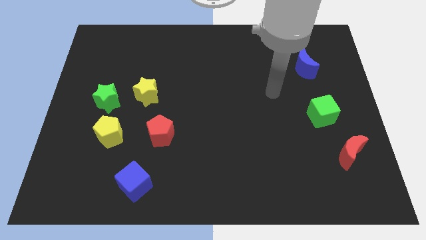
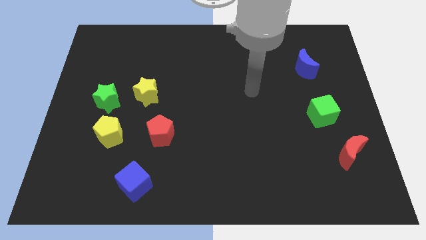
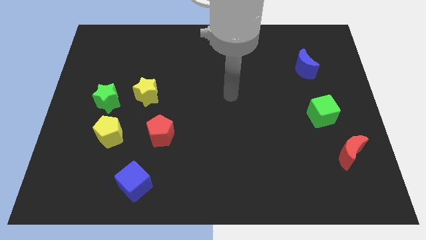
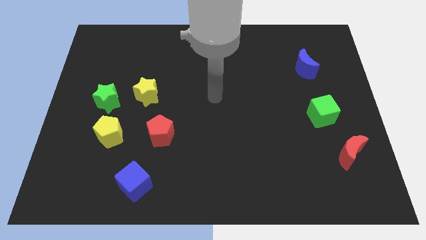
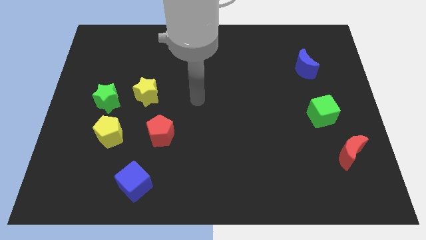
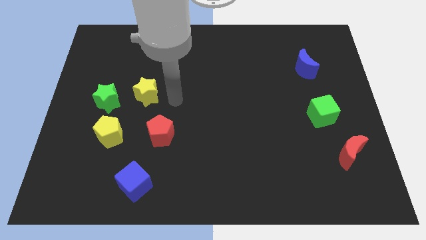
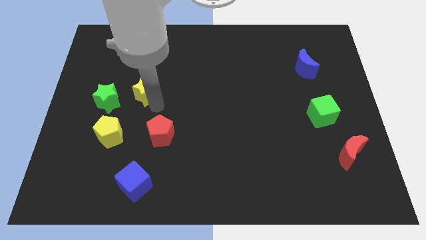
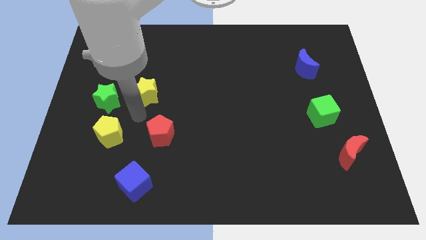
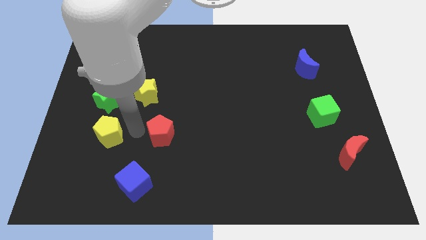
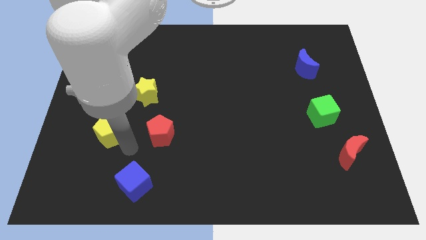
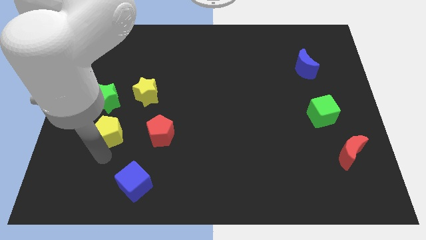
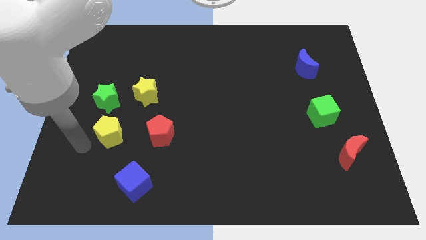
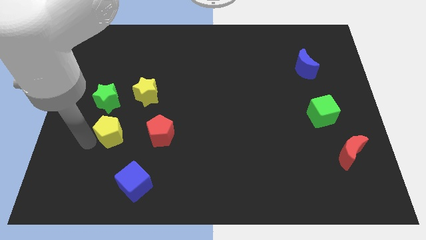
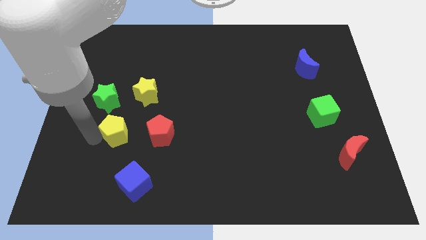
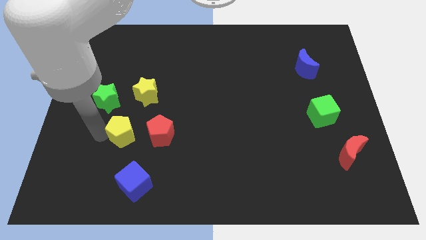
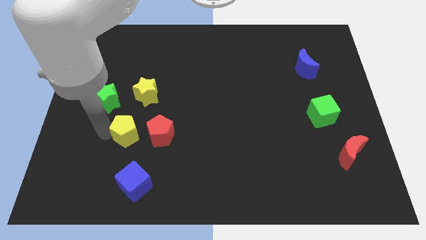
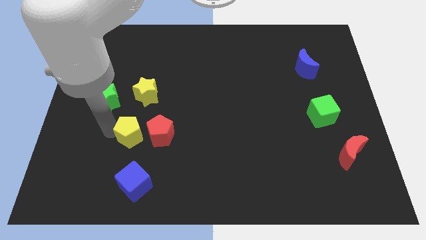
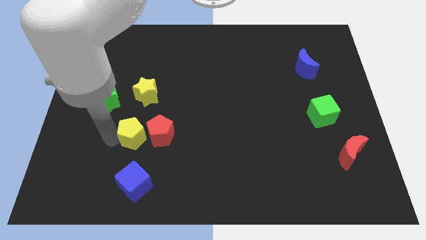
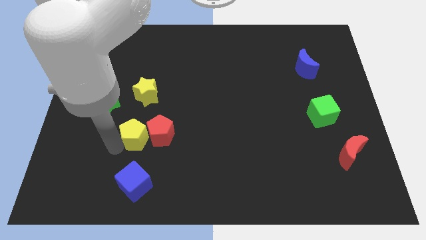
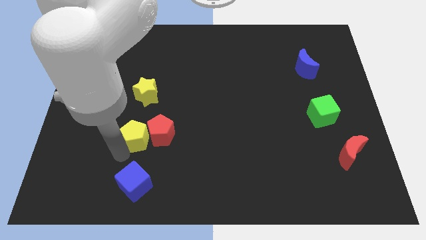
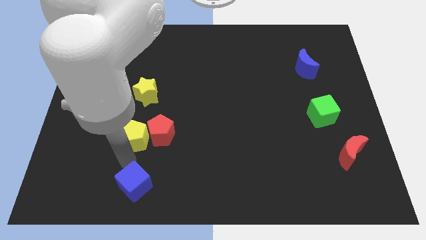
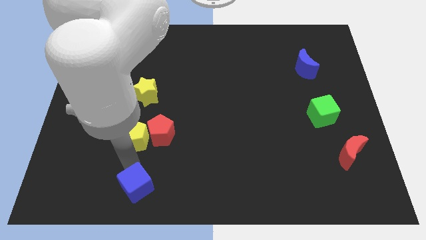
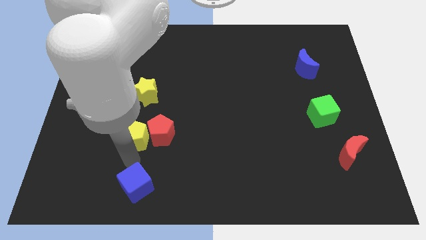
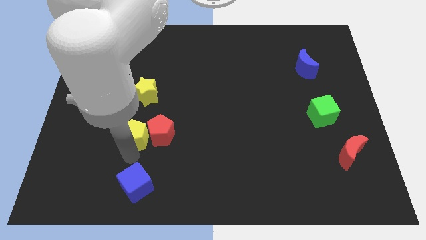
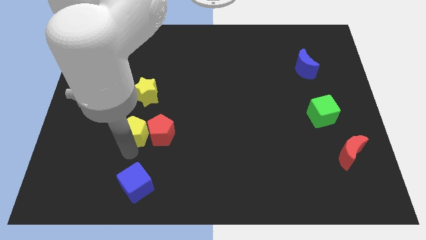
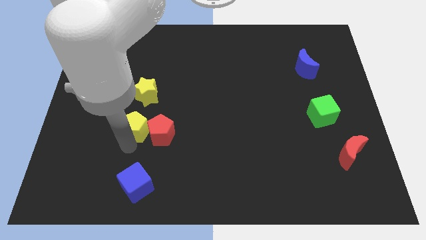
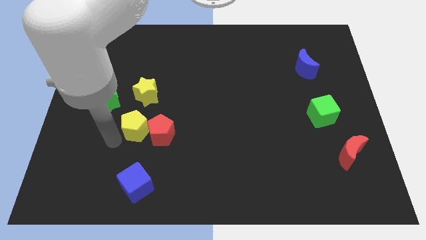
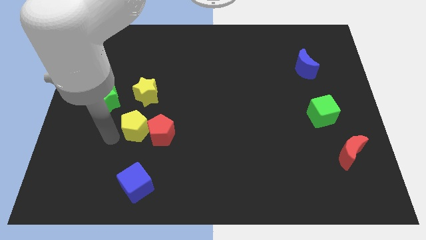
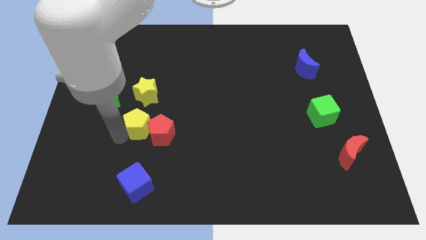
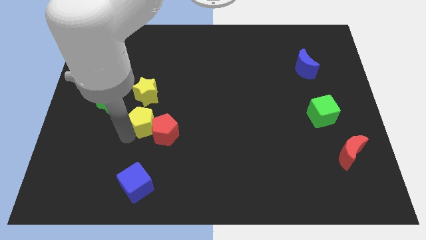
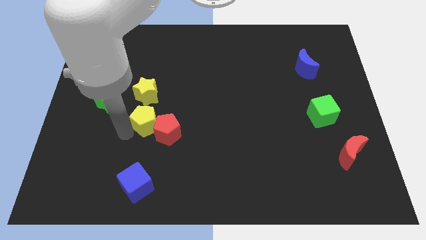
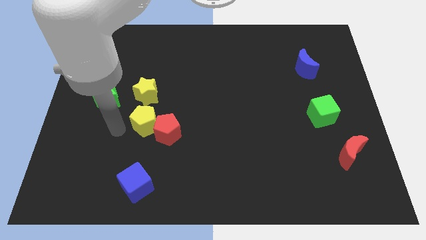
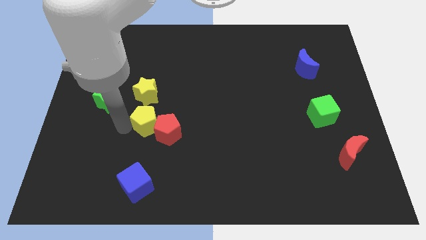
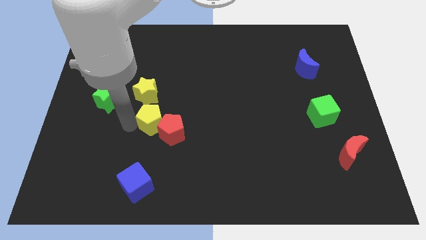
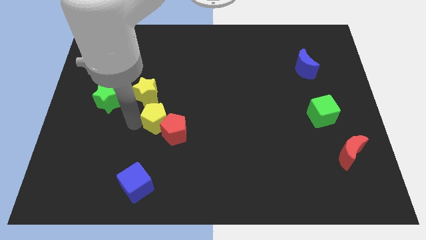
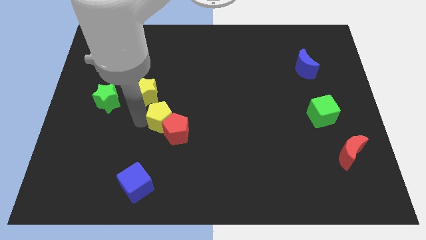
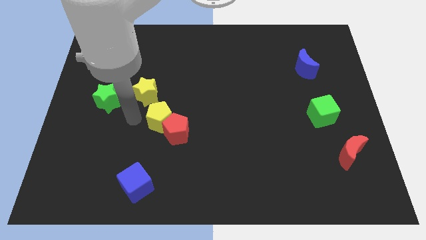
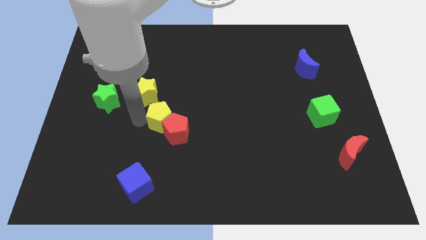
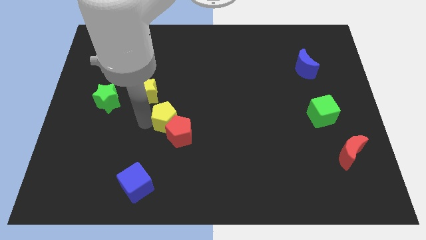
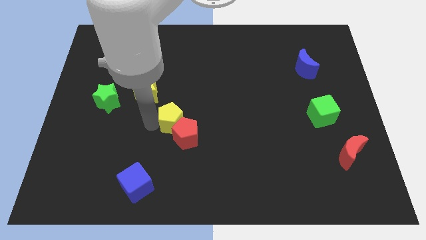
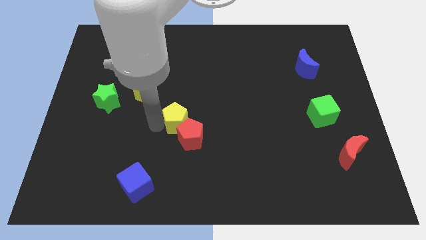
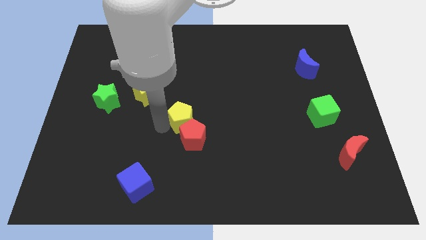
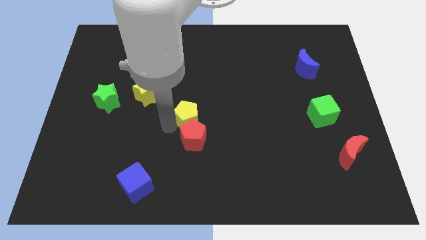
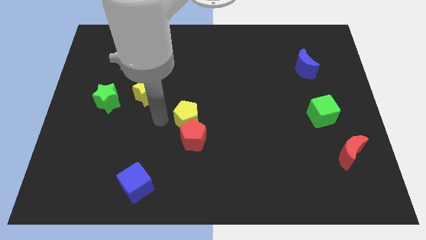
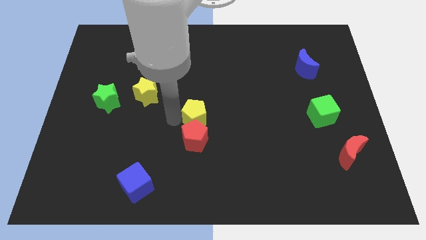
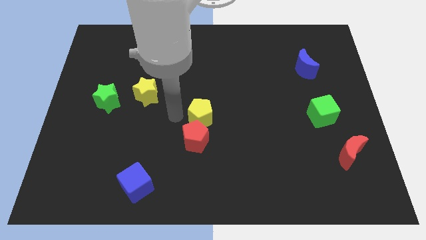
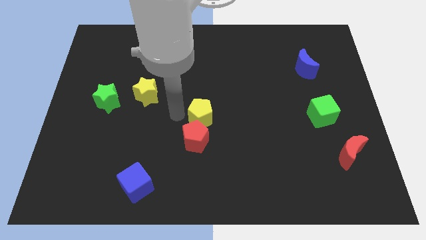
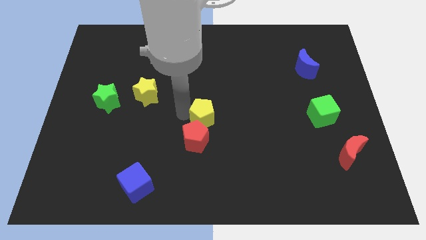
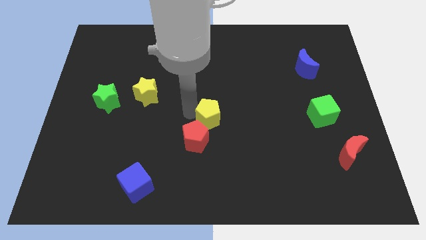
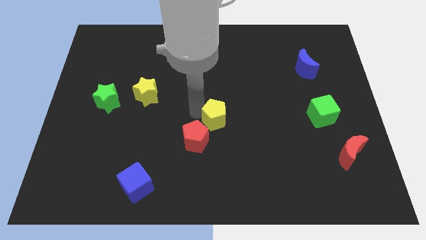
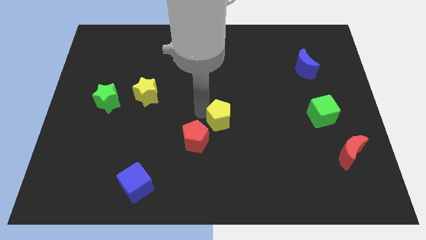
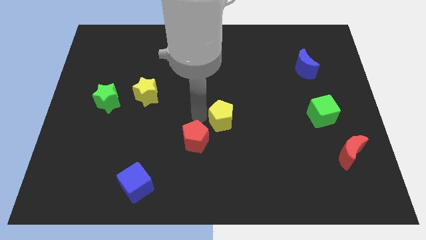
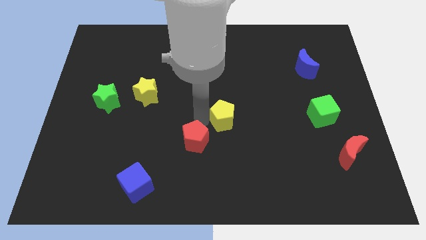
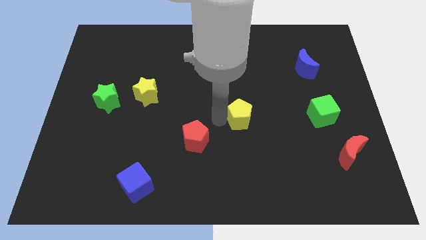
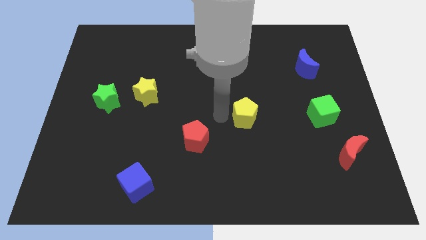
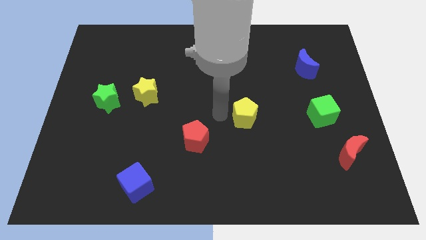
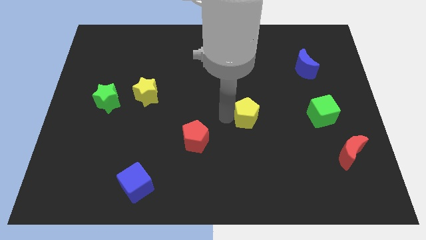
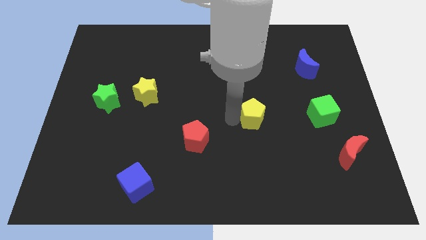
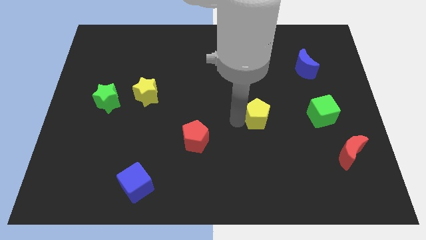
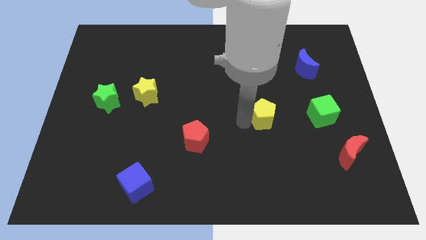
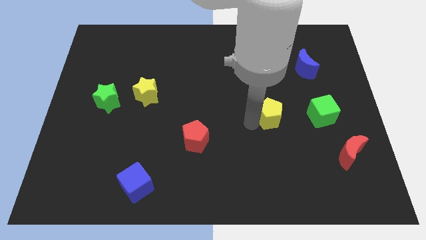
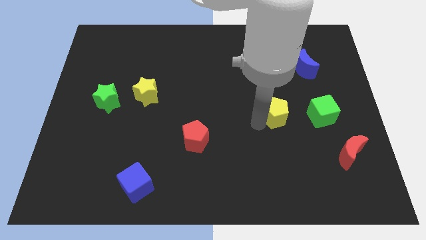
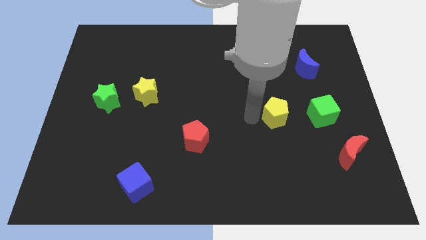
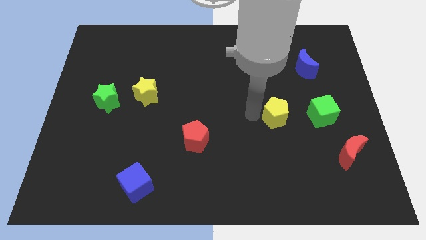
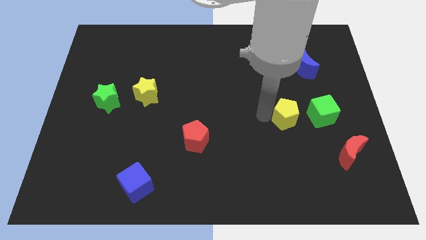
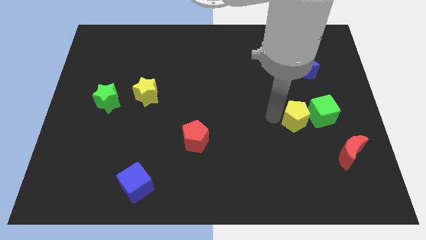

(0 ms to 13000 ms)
slide the yellow pentagon next to the green cube

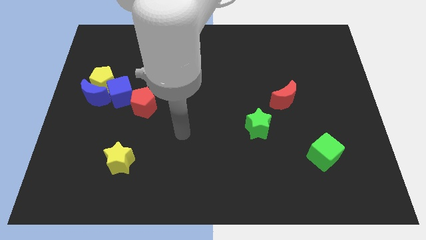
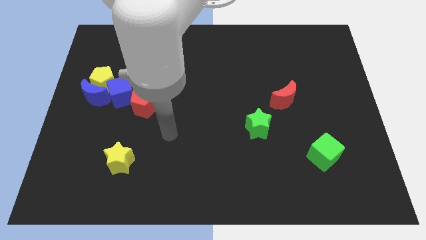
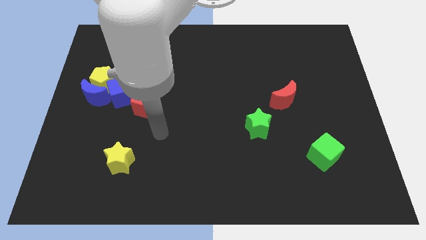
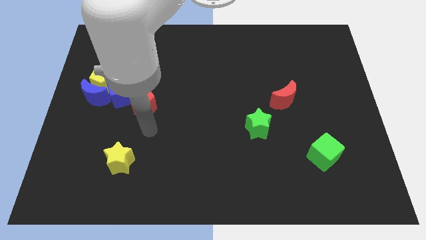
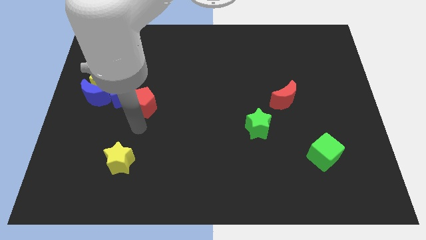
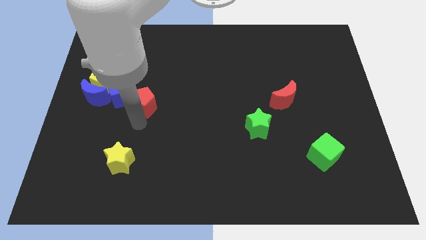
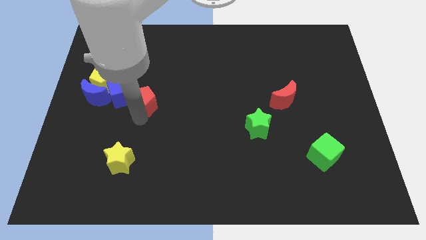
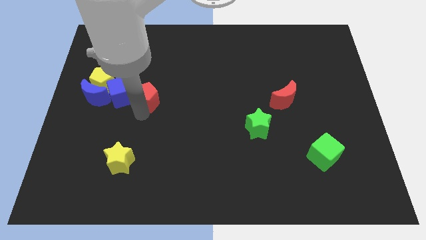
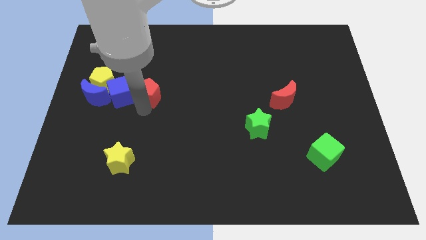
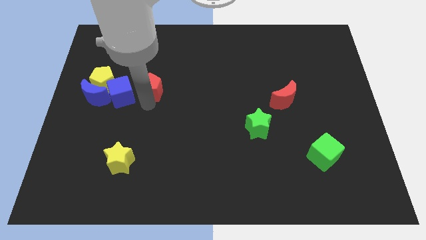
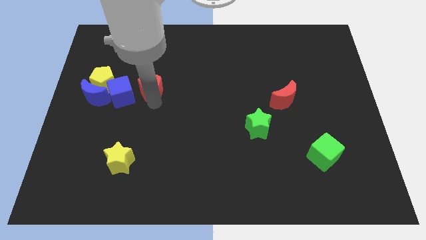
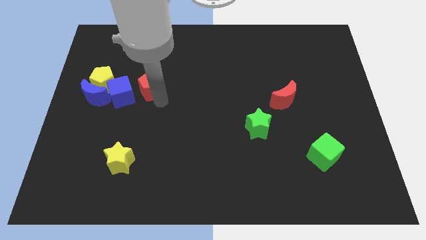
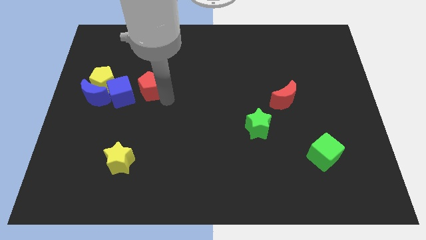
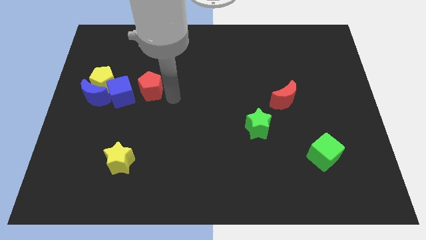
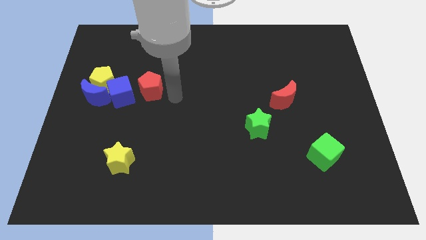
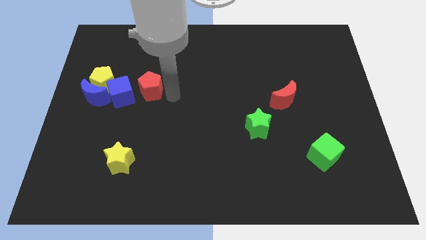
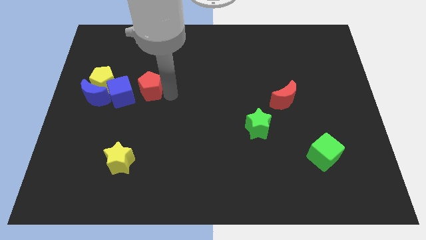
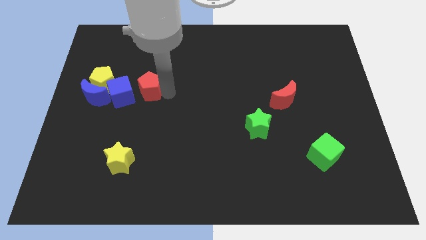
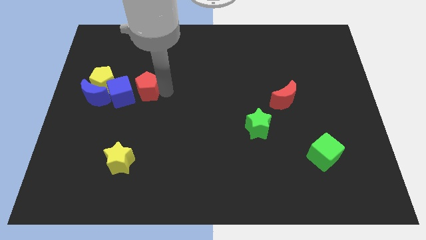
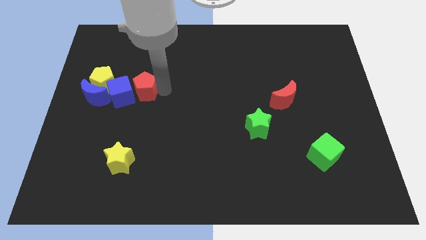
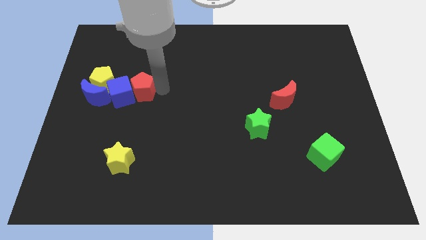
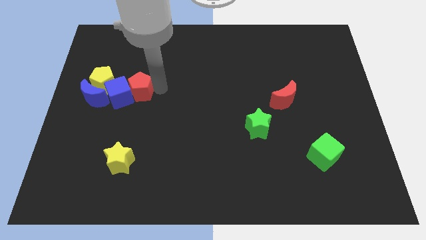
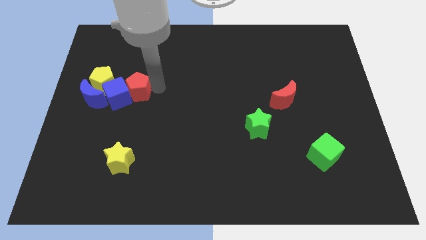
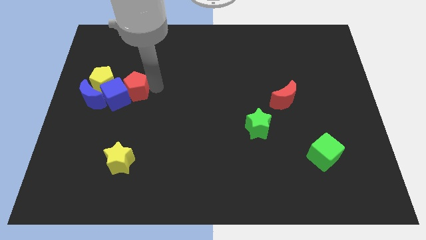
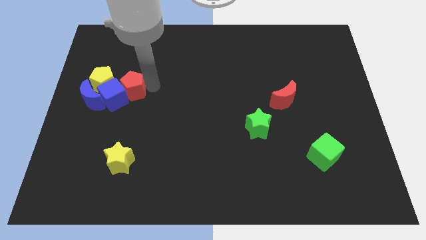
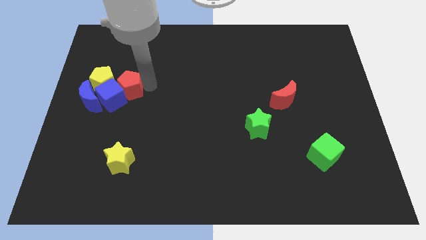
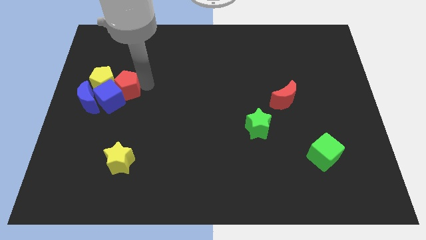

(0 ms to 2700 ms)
slide the red pentagon close to the yellow pentagon
